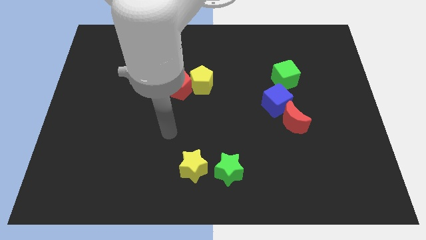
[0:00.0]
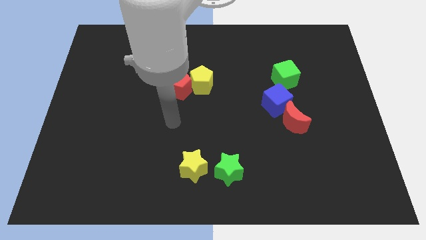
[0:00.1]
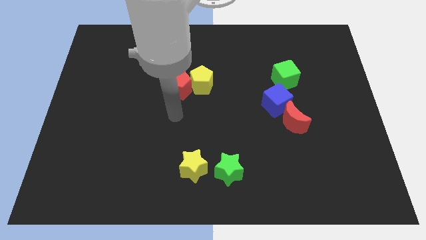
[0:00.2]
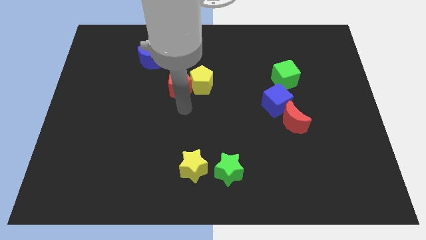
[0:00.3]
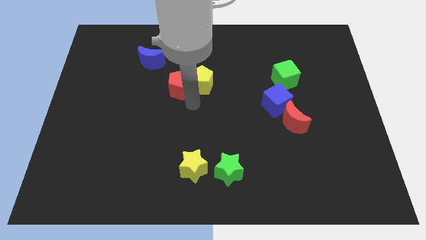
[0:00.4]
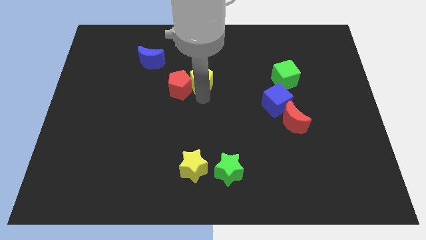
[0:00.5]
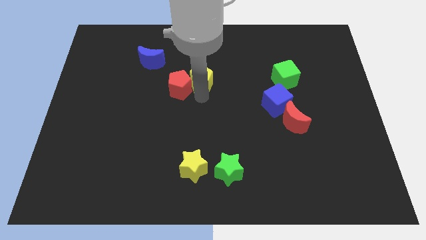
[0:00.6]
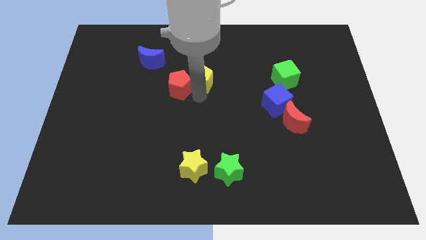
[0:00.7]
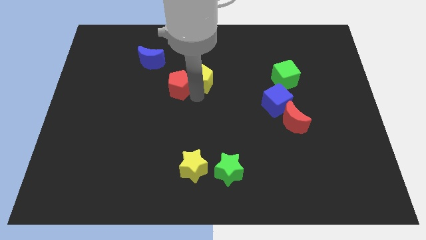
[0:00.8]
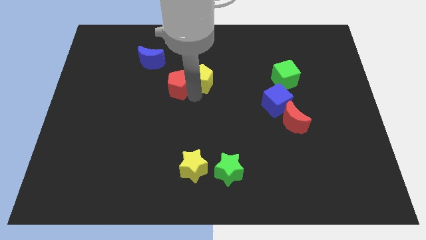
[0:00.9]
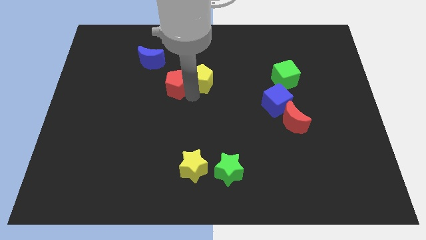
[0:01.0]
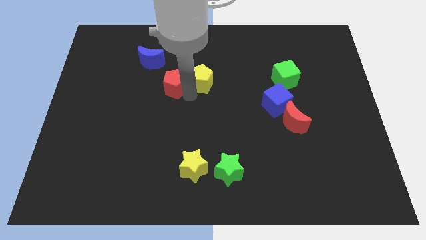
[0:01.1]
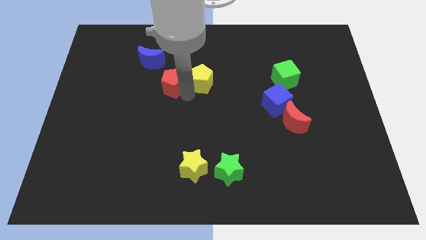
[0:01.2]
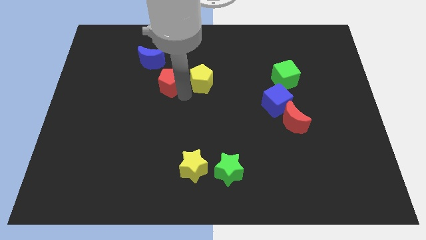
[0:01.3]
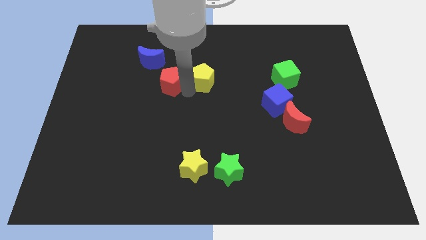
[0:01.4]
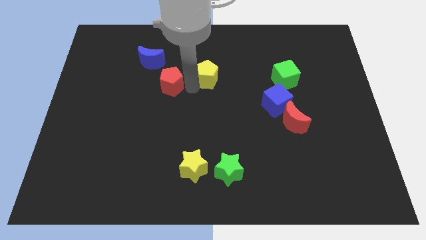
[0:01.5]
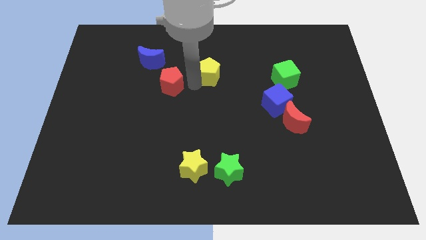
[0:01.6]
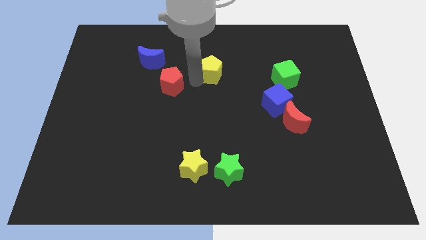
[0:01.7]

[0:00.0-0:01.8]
separate the red pentagon from the yellow pentagon

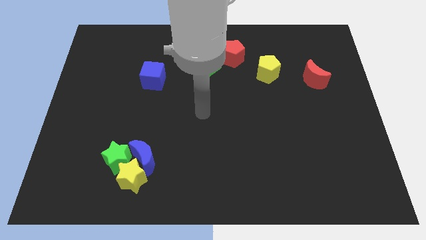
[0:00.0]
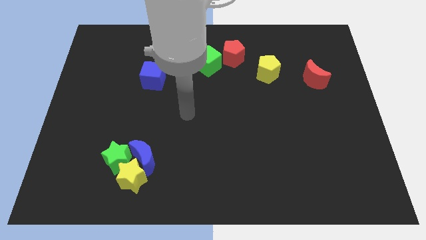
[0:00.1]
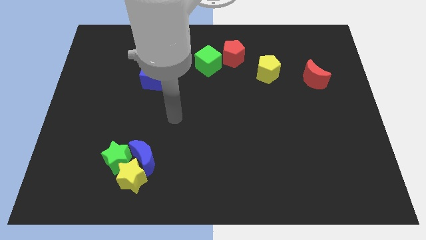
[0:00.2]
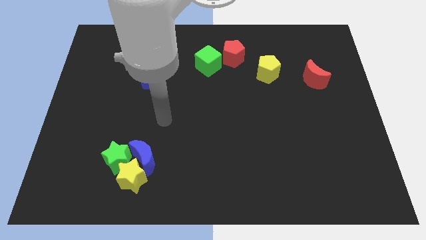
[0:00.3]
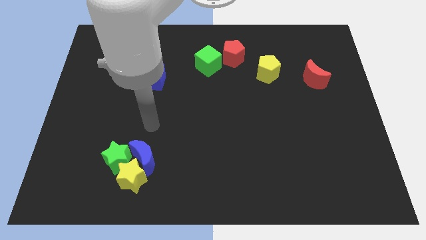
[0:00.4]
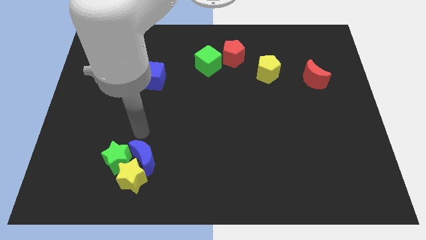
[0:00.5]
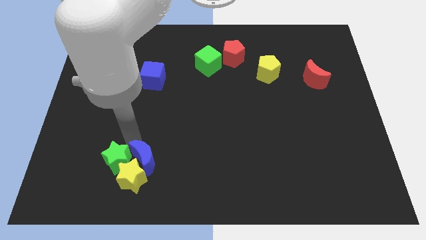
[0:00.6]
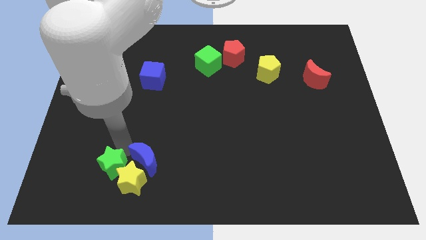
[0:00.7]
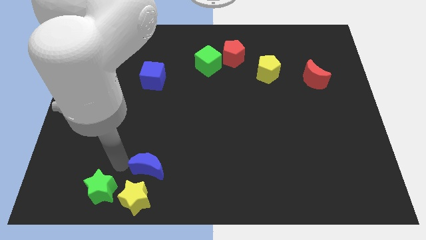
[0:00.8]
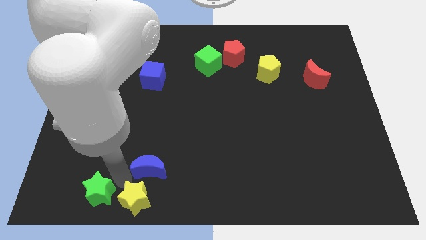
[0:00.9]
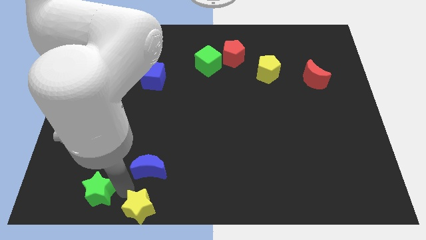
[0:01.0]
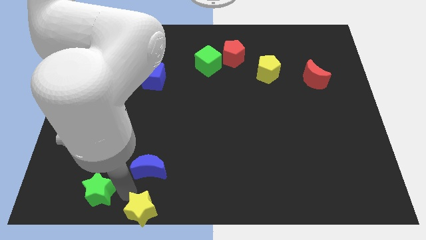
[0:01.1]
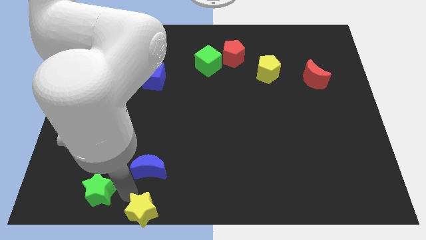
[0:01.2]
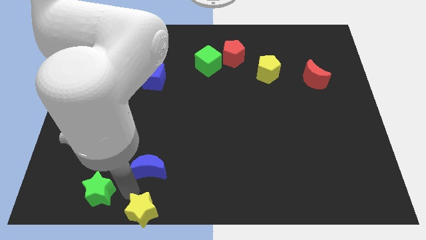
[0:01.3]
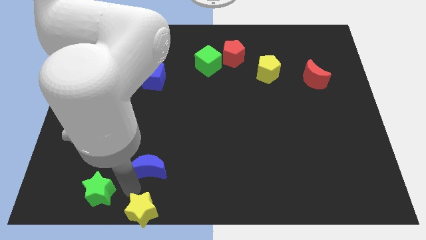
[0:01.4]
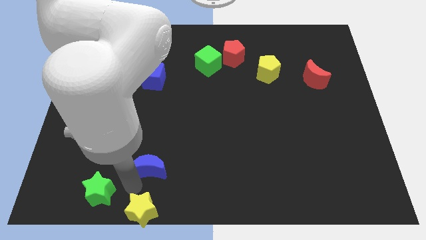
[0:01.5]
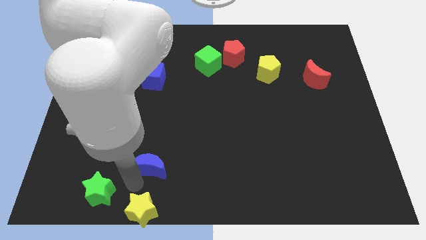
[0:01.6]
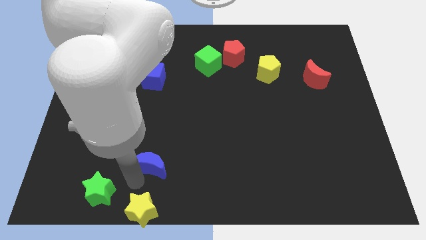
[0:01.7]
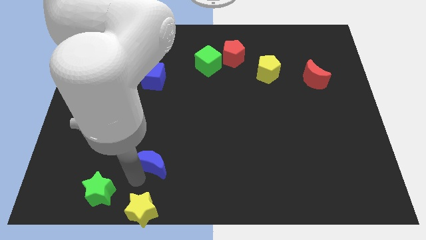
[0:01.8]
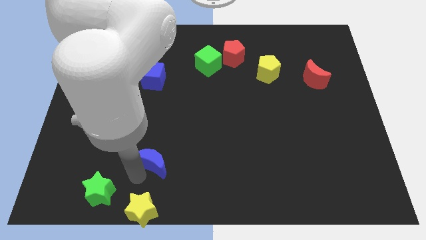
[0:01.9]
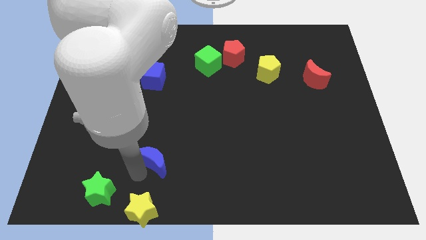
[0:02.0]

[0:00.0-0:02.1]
separate the blue moon from the yellow star and green star

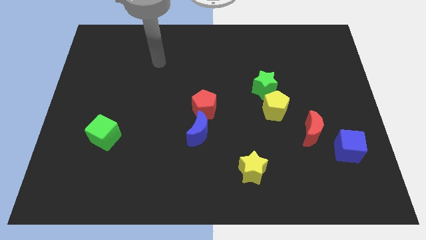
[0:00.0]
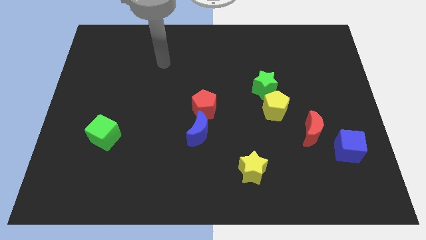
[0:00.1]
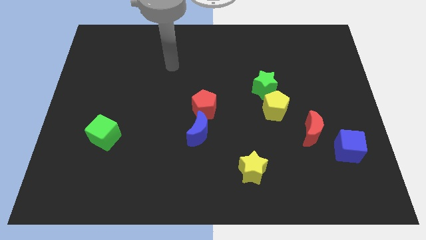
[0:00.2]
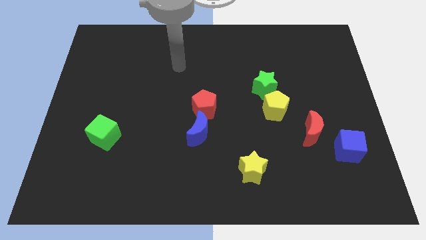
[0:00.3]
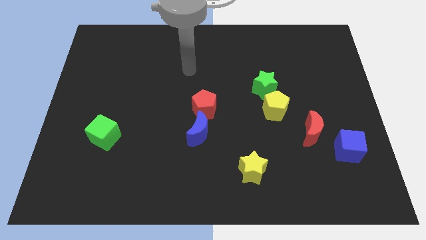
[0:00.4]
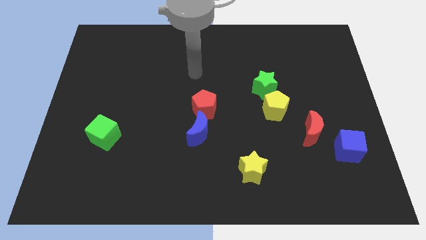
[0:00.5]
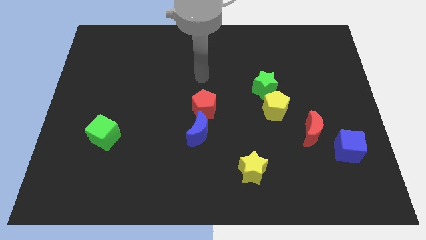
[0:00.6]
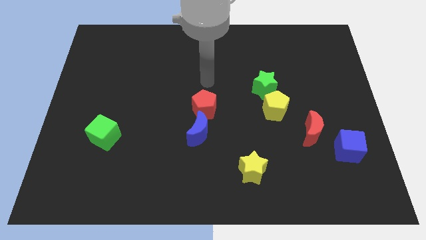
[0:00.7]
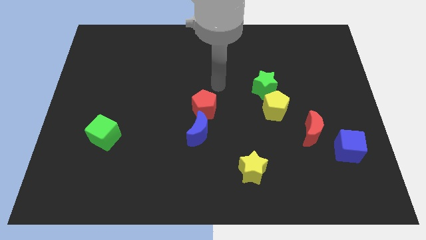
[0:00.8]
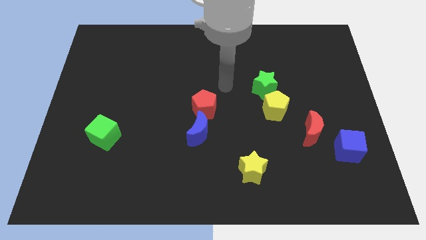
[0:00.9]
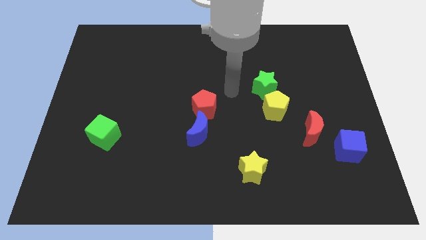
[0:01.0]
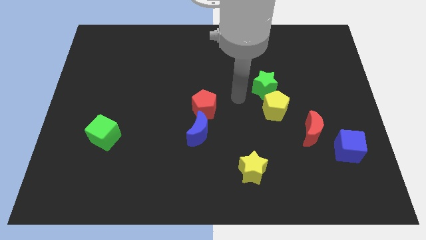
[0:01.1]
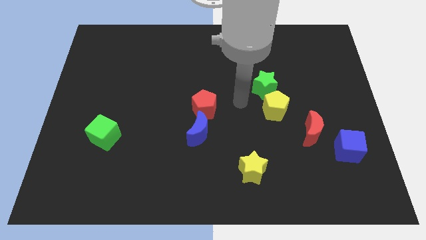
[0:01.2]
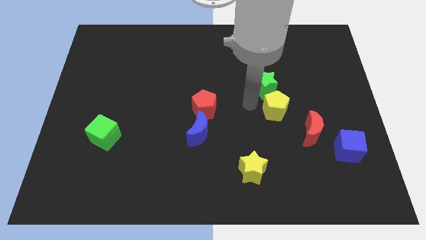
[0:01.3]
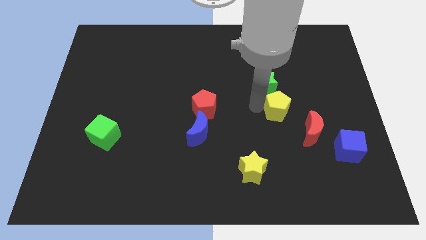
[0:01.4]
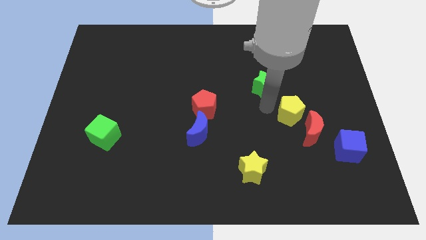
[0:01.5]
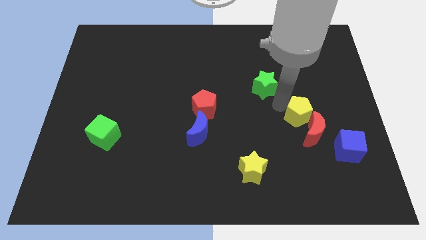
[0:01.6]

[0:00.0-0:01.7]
pull the green star apart from the yellow pentagon

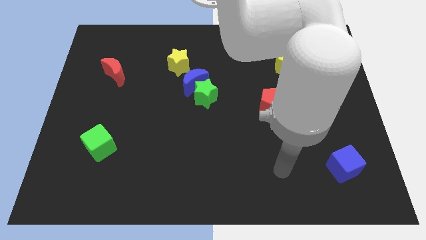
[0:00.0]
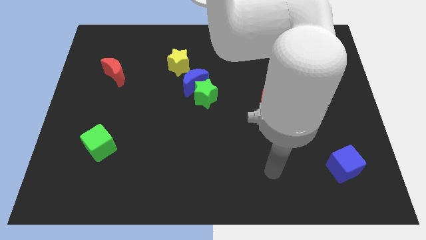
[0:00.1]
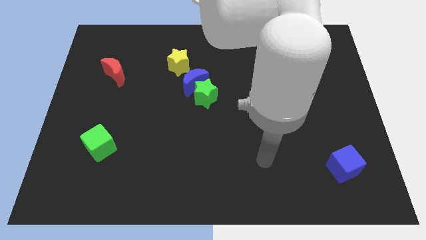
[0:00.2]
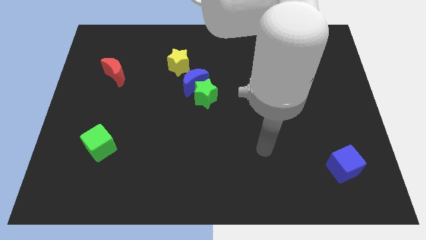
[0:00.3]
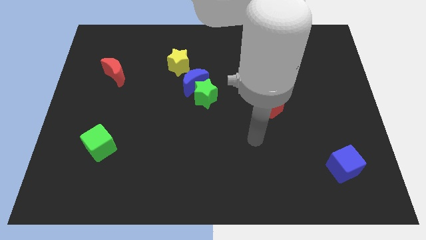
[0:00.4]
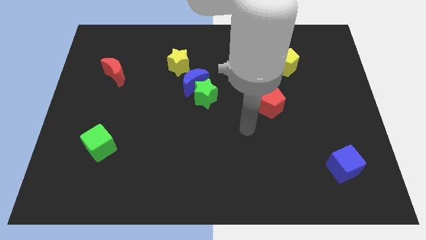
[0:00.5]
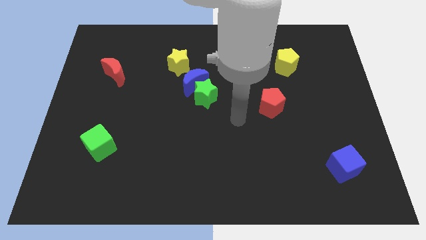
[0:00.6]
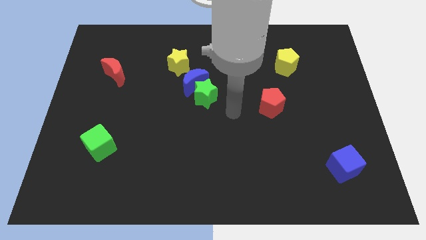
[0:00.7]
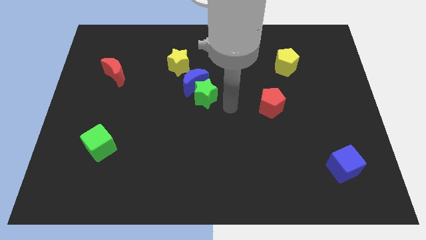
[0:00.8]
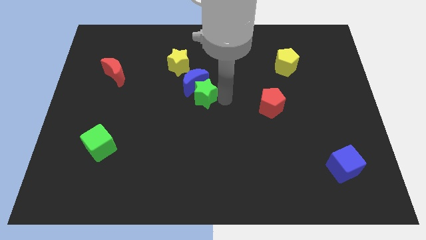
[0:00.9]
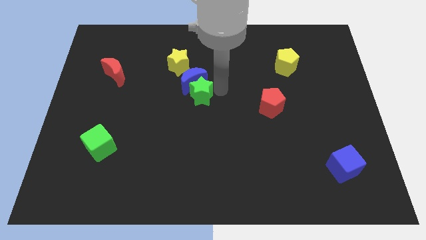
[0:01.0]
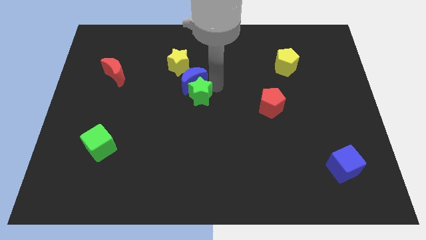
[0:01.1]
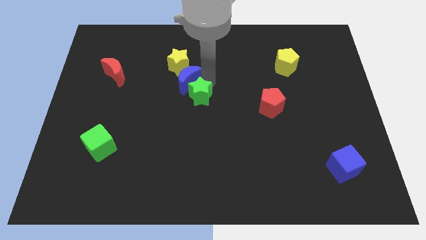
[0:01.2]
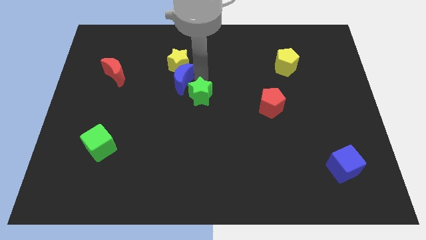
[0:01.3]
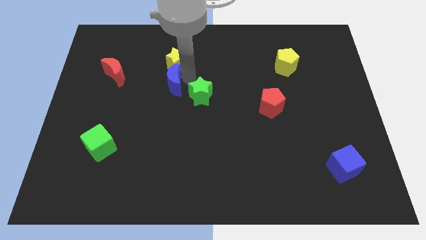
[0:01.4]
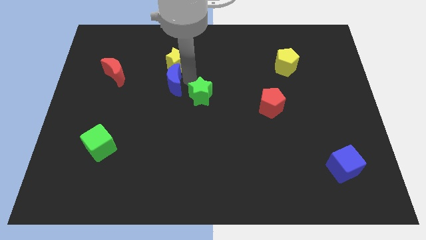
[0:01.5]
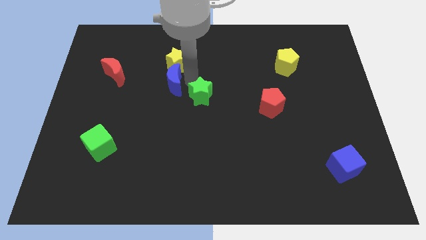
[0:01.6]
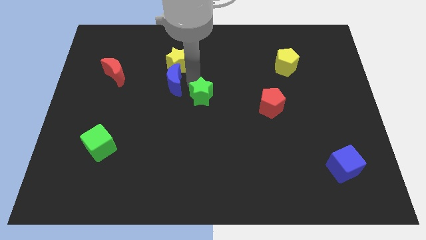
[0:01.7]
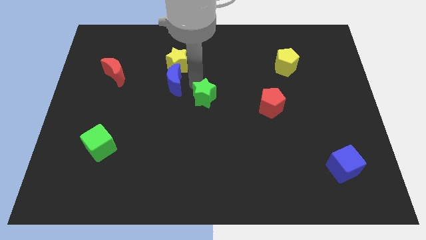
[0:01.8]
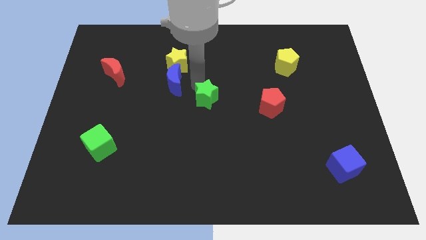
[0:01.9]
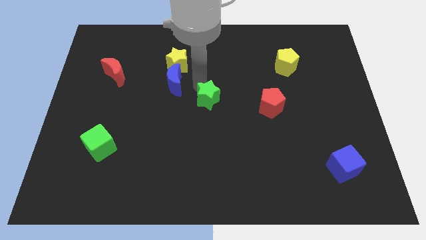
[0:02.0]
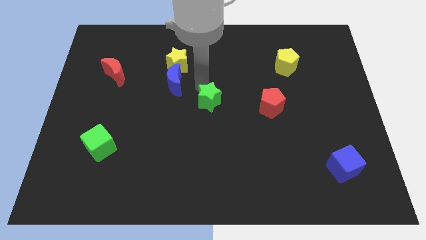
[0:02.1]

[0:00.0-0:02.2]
pull the green star apart from the blue moon

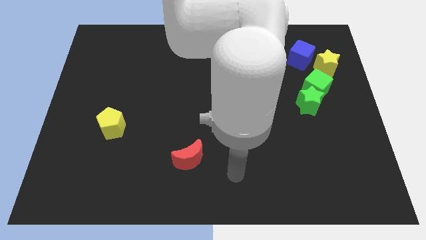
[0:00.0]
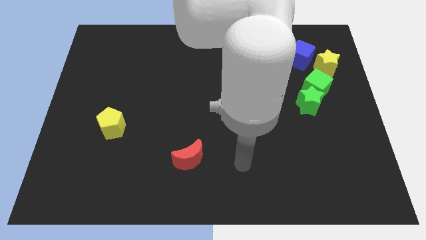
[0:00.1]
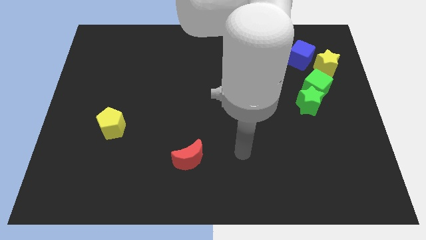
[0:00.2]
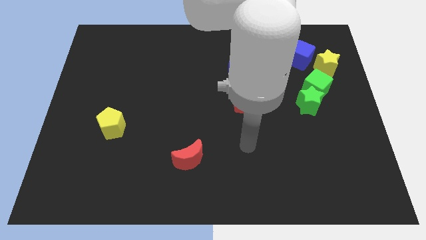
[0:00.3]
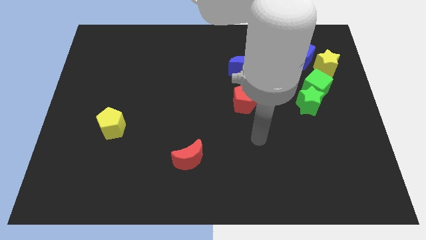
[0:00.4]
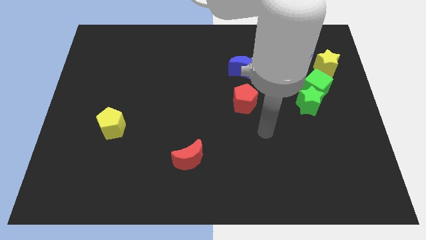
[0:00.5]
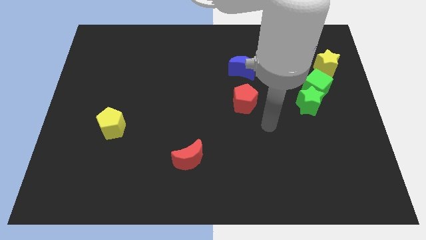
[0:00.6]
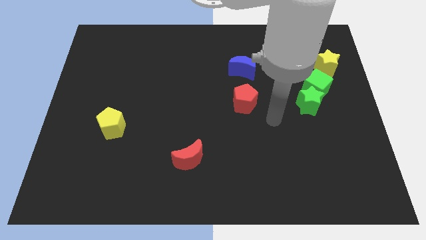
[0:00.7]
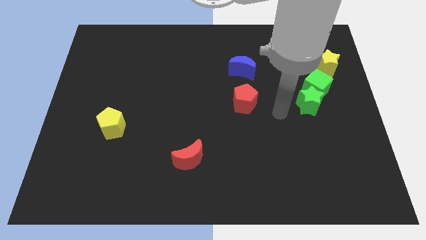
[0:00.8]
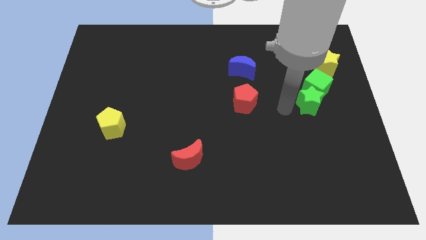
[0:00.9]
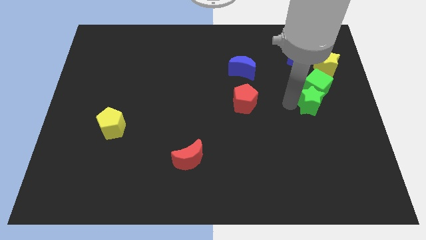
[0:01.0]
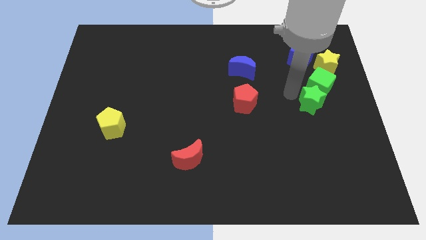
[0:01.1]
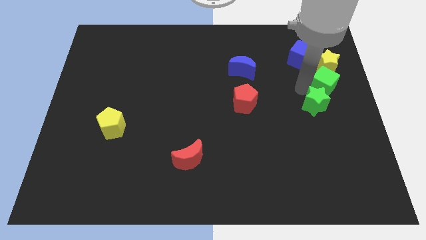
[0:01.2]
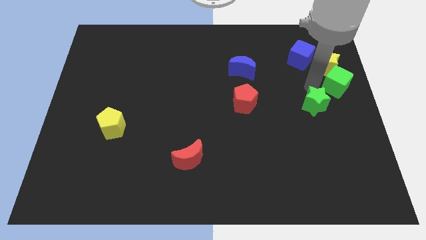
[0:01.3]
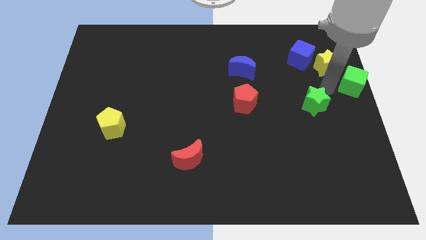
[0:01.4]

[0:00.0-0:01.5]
separate the green star from the green cube

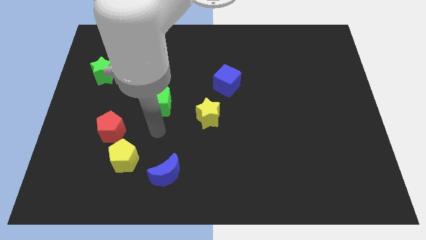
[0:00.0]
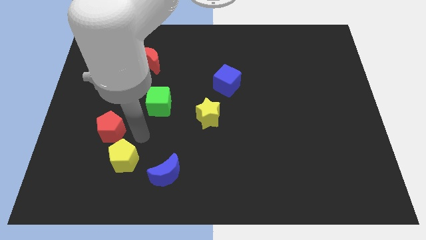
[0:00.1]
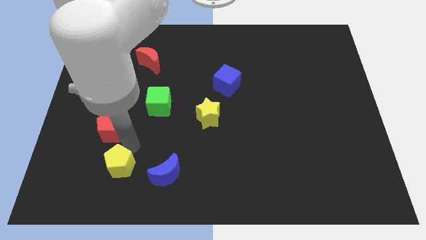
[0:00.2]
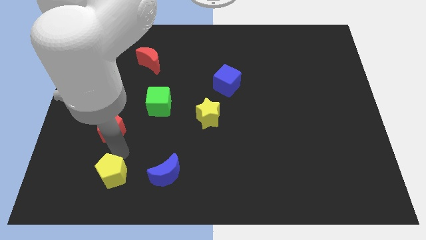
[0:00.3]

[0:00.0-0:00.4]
move the red pentagon away from the yellow pentagon
